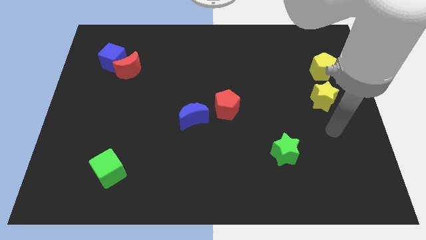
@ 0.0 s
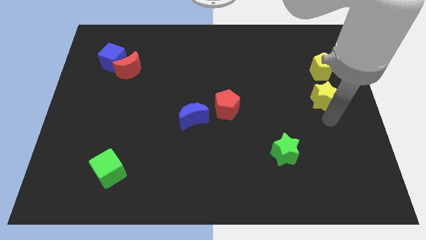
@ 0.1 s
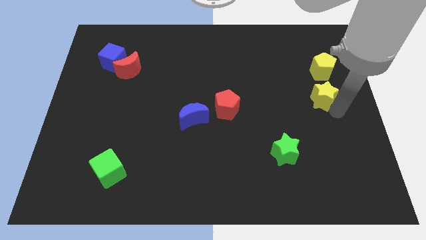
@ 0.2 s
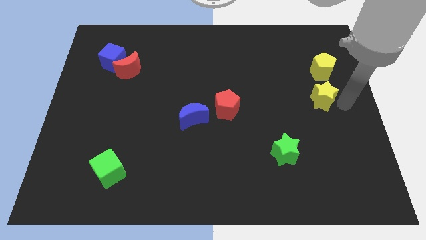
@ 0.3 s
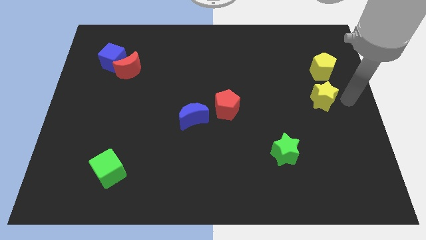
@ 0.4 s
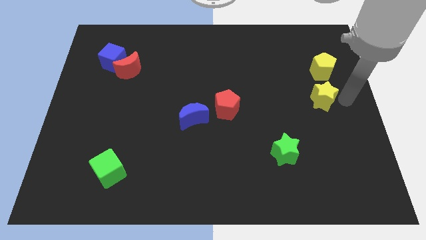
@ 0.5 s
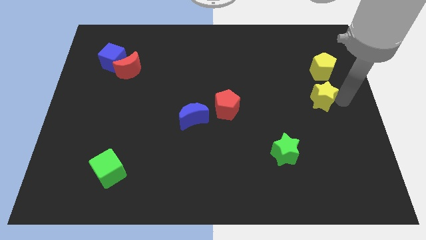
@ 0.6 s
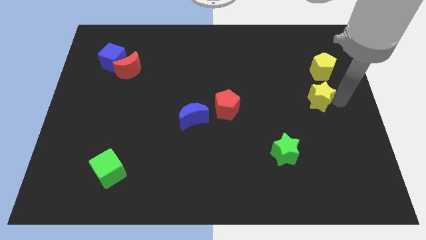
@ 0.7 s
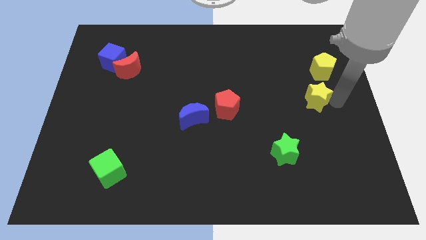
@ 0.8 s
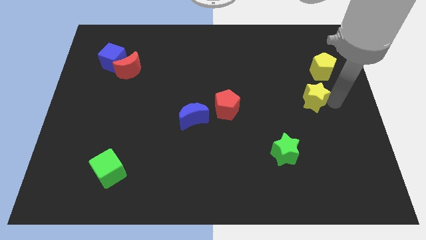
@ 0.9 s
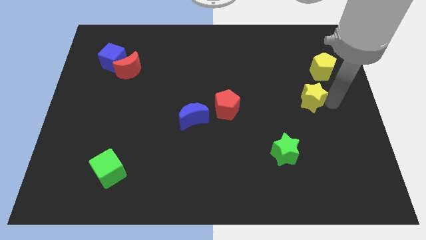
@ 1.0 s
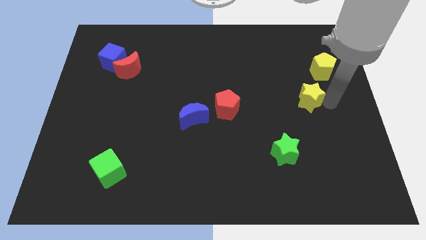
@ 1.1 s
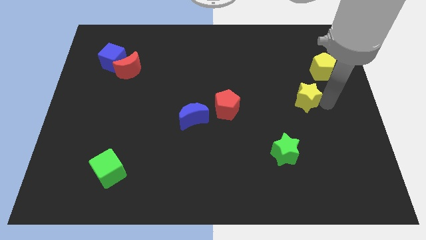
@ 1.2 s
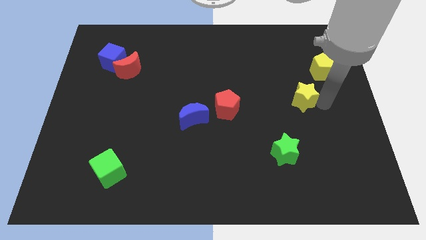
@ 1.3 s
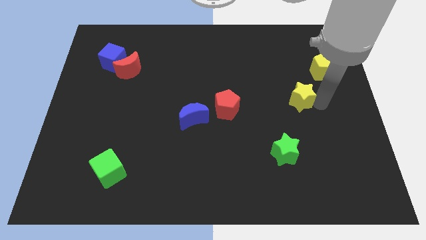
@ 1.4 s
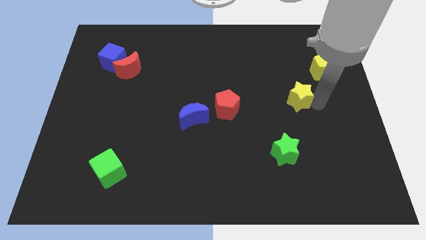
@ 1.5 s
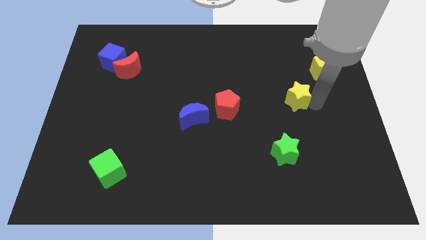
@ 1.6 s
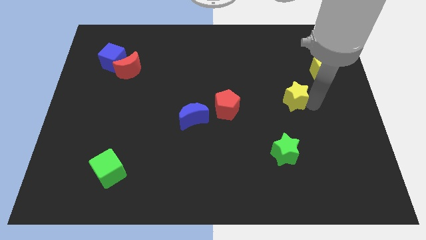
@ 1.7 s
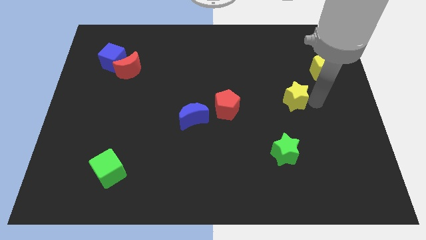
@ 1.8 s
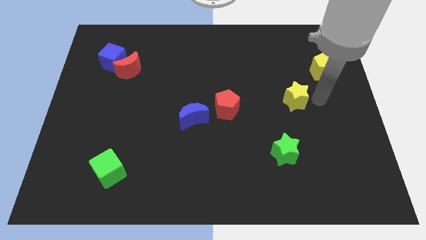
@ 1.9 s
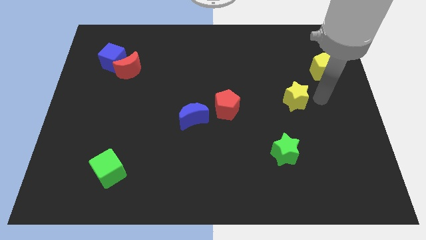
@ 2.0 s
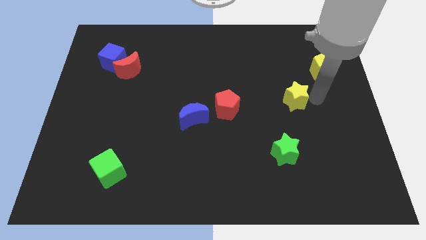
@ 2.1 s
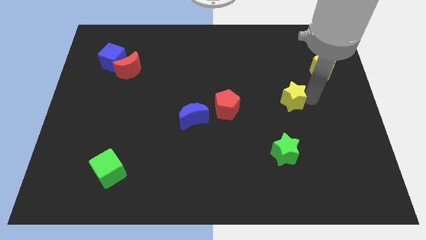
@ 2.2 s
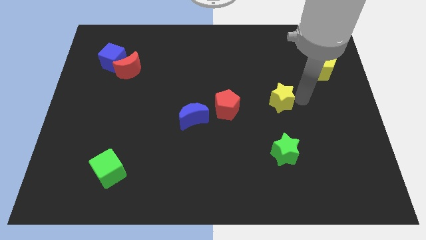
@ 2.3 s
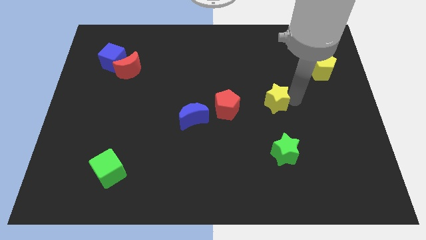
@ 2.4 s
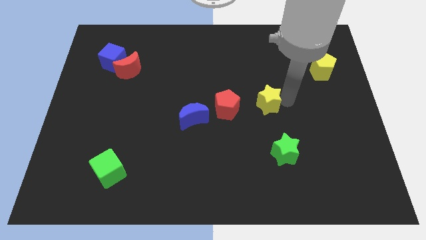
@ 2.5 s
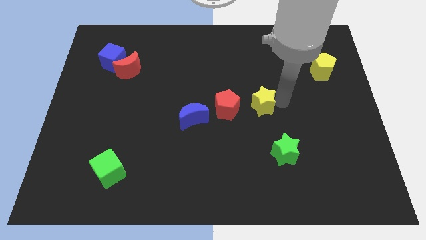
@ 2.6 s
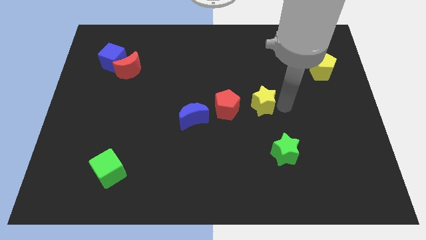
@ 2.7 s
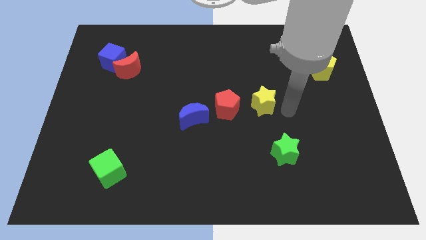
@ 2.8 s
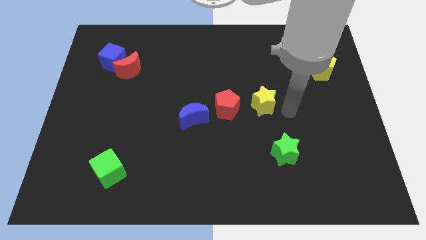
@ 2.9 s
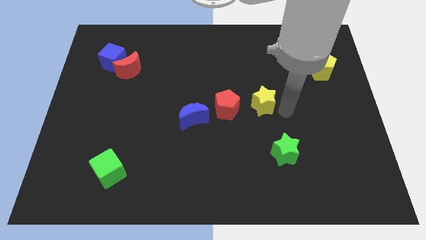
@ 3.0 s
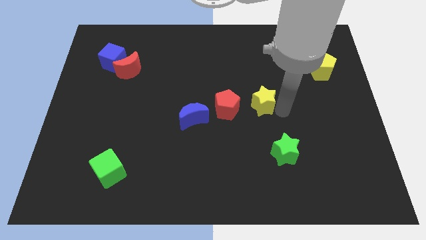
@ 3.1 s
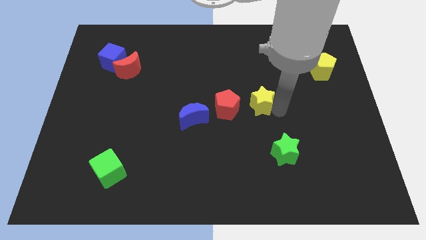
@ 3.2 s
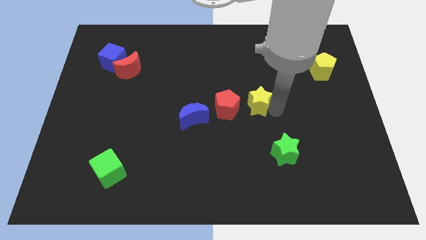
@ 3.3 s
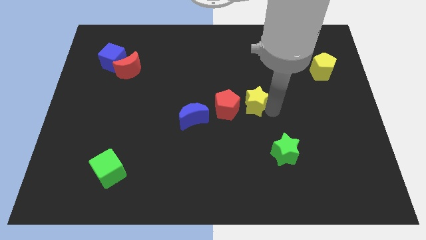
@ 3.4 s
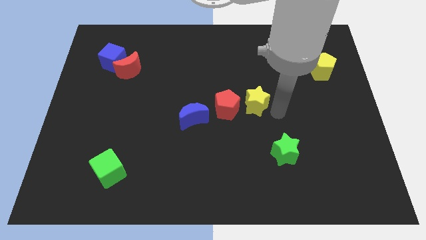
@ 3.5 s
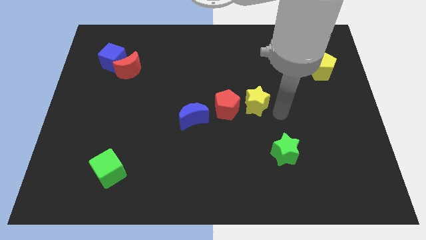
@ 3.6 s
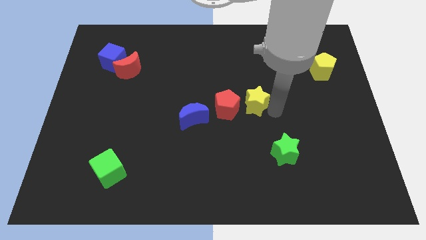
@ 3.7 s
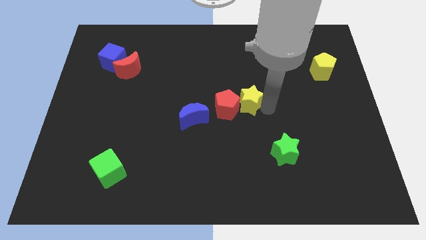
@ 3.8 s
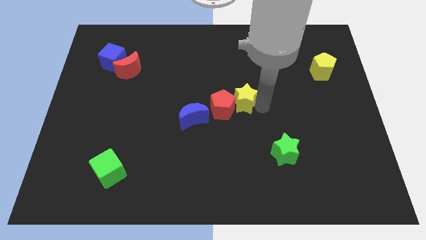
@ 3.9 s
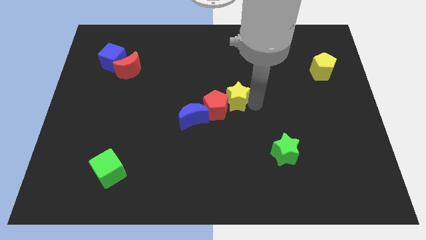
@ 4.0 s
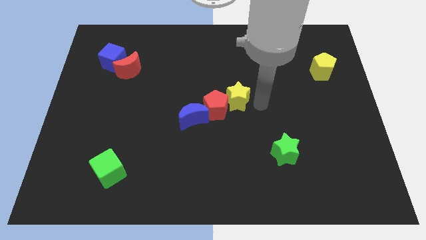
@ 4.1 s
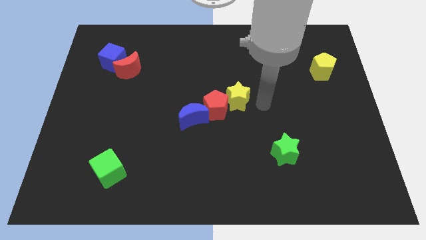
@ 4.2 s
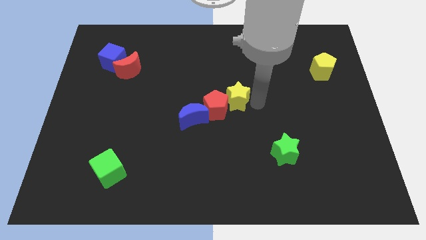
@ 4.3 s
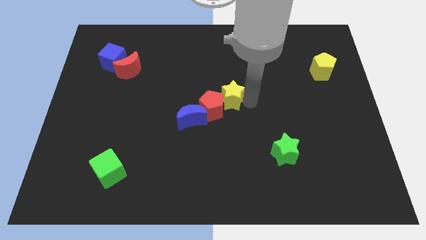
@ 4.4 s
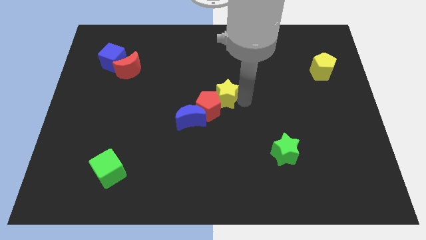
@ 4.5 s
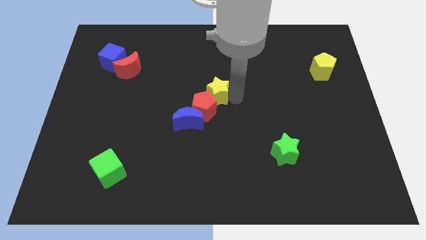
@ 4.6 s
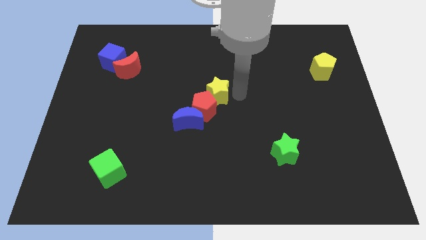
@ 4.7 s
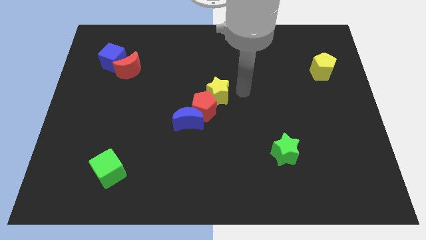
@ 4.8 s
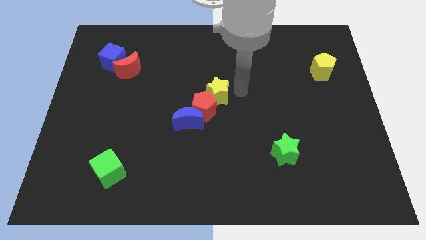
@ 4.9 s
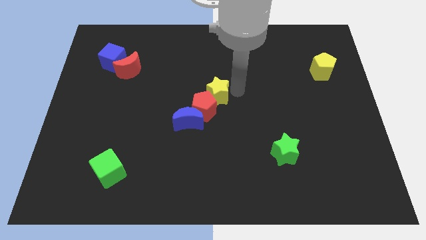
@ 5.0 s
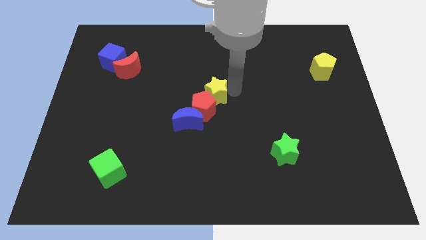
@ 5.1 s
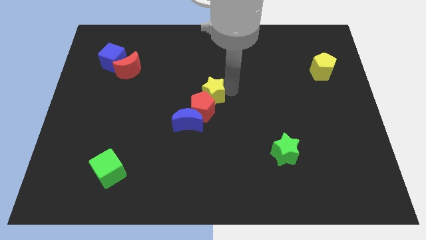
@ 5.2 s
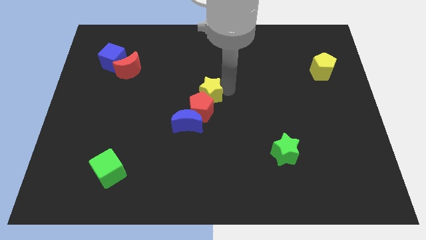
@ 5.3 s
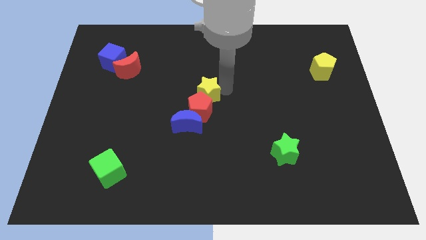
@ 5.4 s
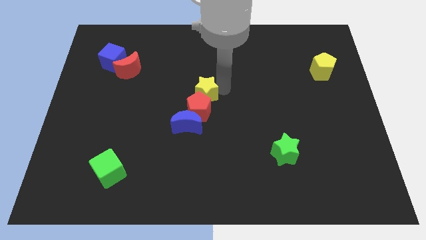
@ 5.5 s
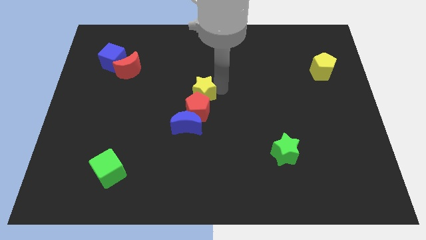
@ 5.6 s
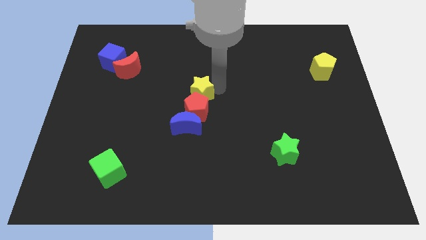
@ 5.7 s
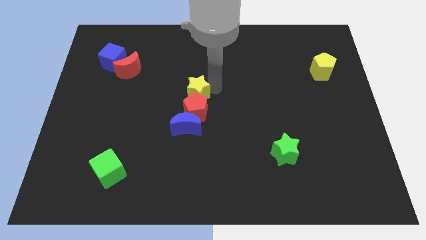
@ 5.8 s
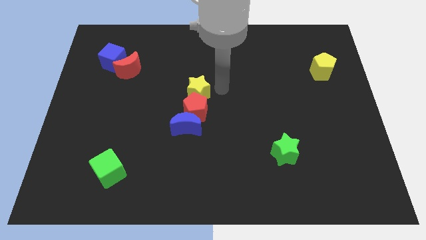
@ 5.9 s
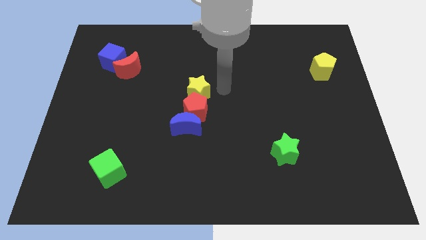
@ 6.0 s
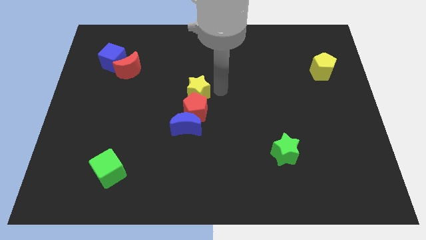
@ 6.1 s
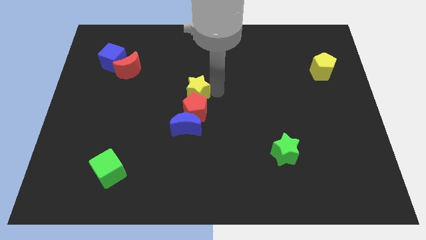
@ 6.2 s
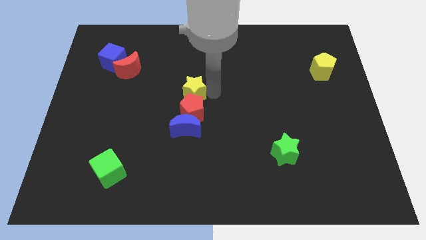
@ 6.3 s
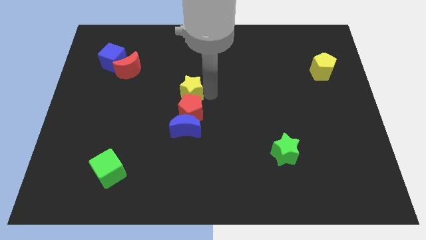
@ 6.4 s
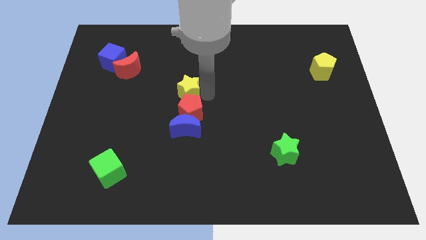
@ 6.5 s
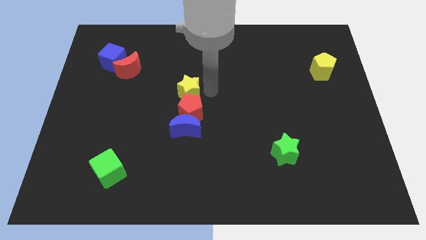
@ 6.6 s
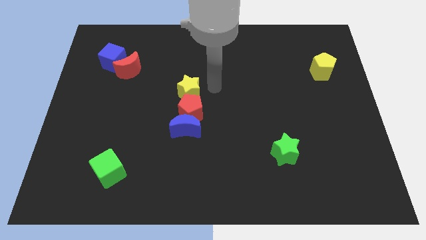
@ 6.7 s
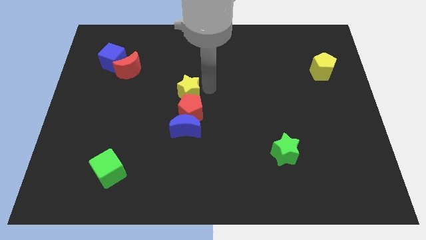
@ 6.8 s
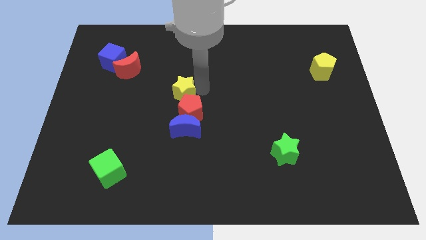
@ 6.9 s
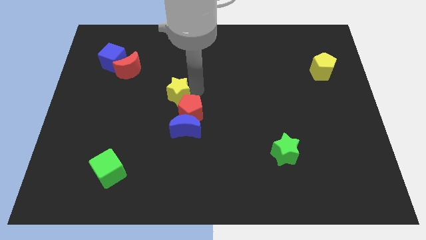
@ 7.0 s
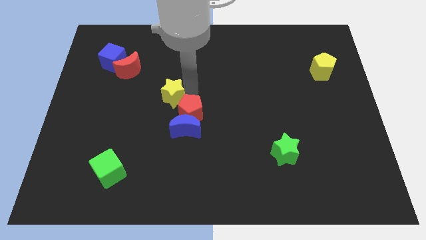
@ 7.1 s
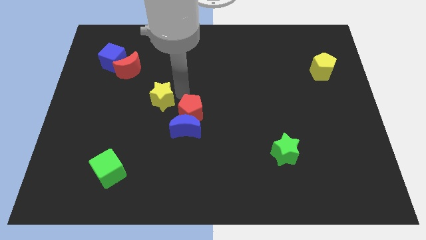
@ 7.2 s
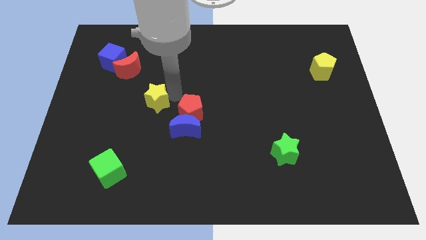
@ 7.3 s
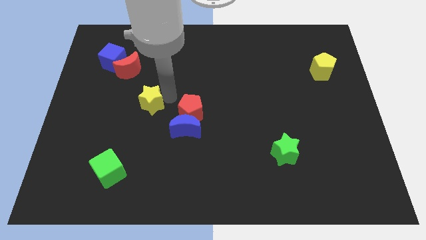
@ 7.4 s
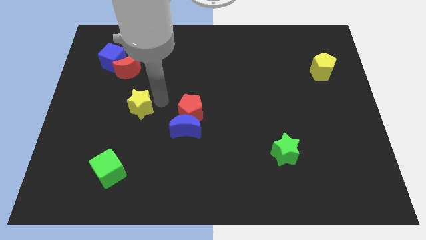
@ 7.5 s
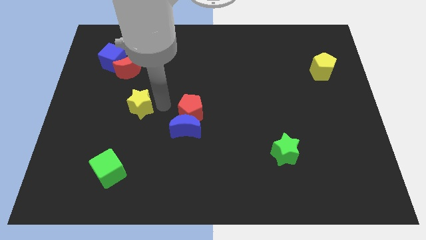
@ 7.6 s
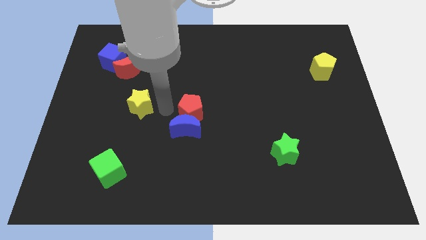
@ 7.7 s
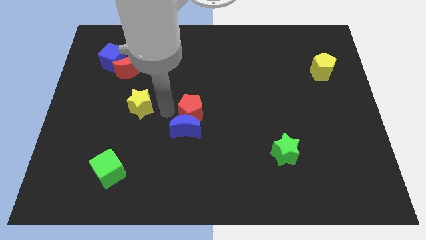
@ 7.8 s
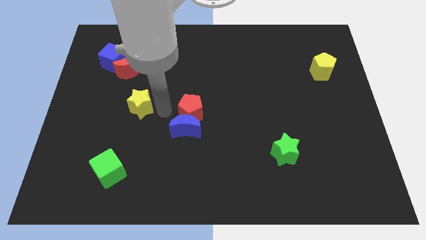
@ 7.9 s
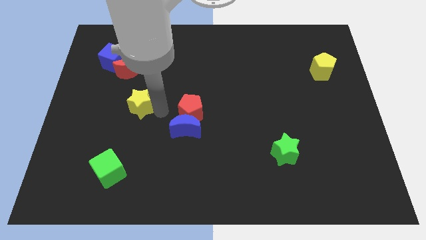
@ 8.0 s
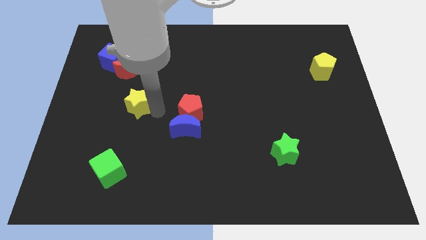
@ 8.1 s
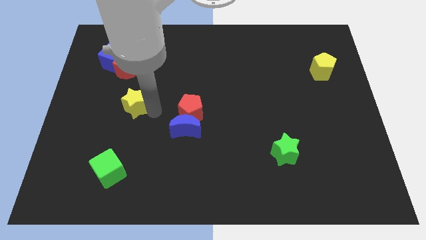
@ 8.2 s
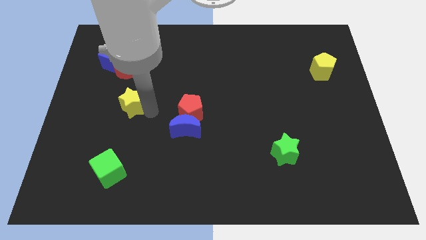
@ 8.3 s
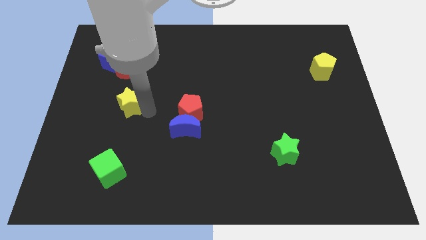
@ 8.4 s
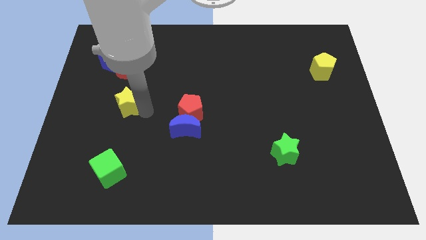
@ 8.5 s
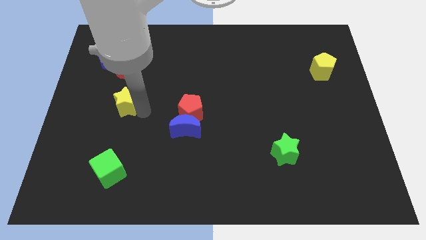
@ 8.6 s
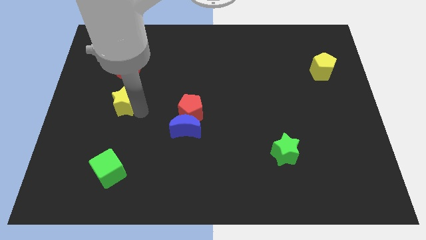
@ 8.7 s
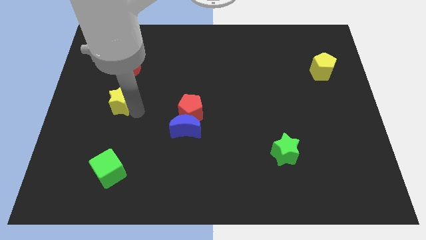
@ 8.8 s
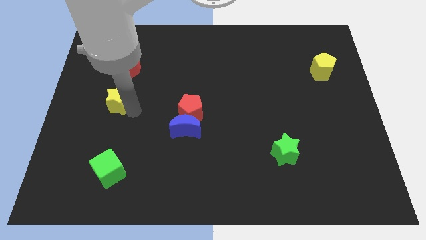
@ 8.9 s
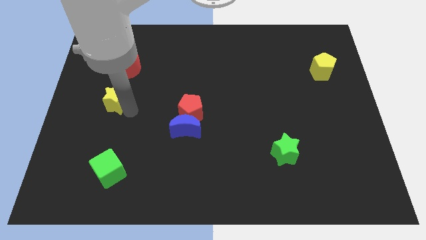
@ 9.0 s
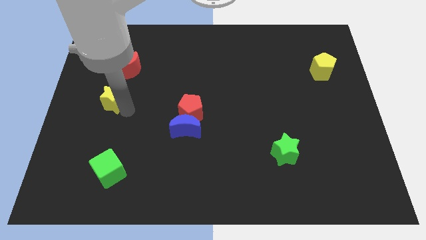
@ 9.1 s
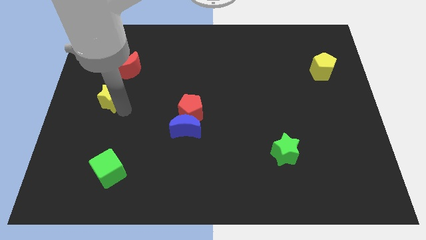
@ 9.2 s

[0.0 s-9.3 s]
slide the yellow star diagonally down and to the left of the red moon
